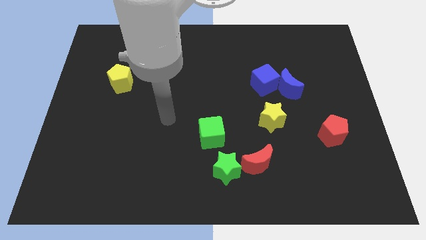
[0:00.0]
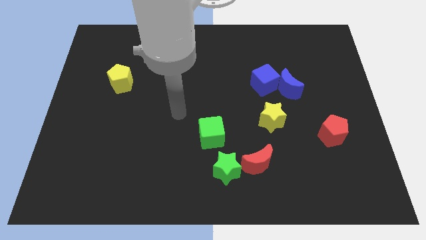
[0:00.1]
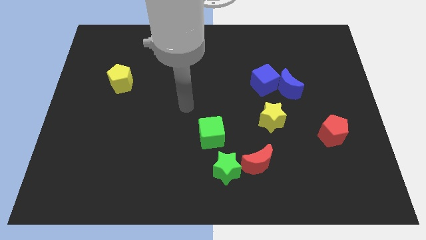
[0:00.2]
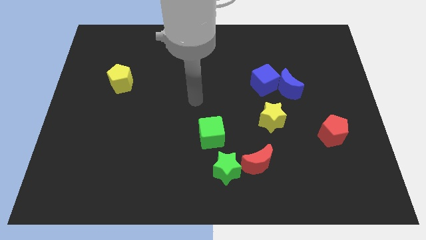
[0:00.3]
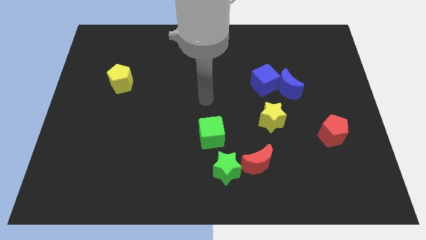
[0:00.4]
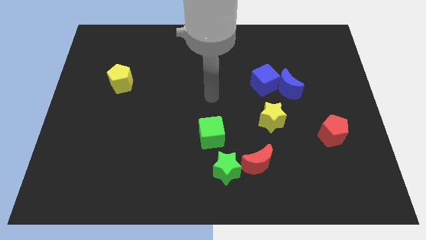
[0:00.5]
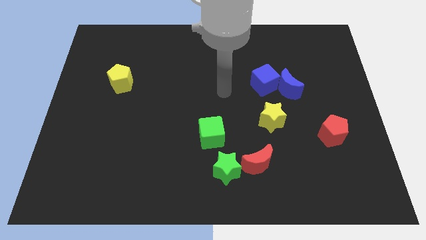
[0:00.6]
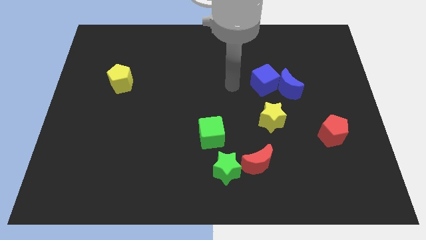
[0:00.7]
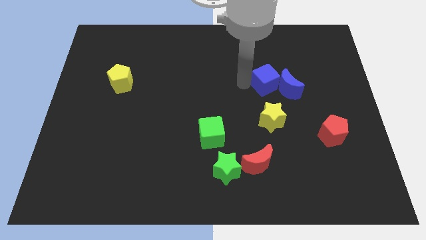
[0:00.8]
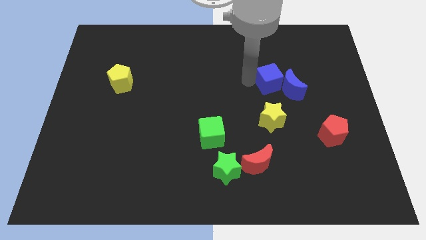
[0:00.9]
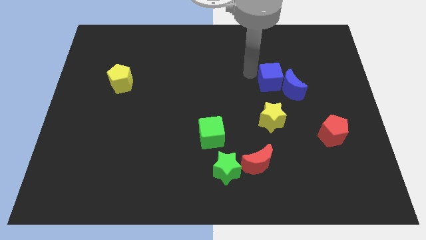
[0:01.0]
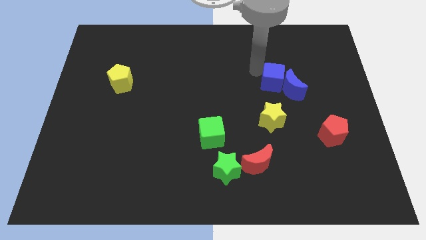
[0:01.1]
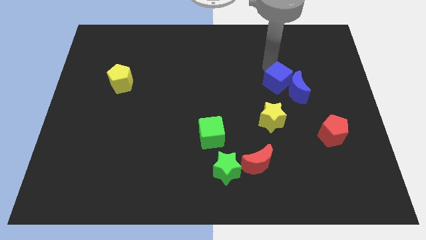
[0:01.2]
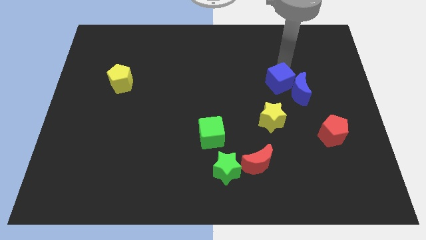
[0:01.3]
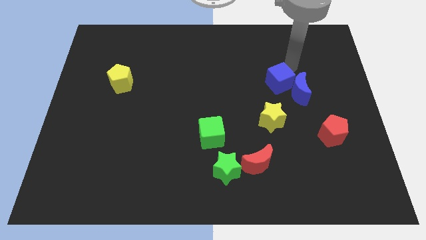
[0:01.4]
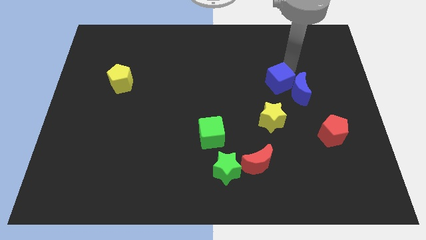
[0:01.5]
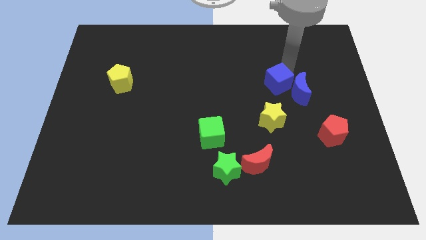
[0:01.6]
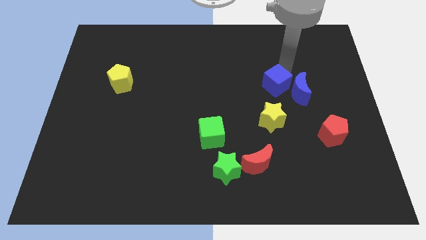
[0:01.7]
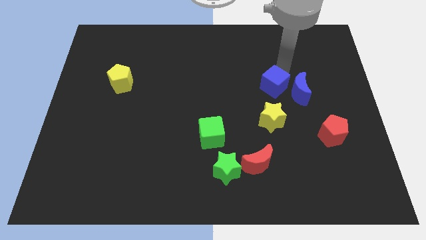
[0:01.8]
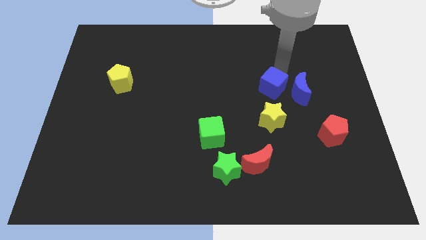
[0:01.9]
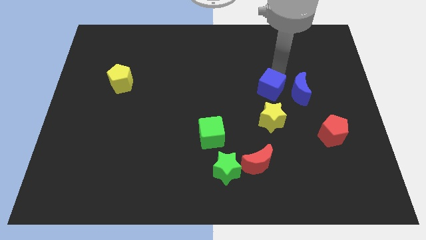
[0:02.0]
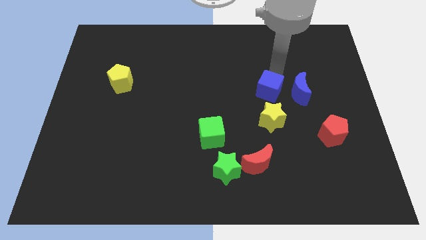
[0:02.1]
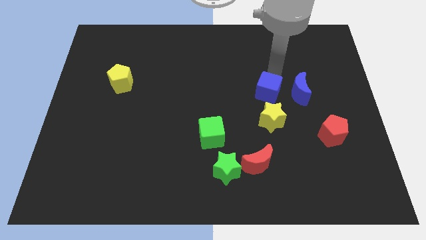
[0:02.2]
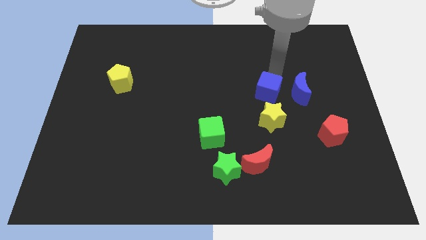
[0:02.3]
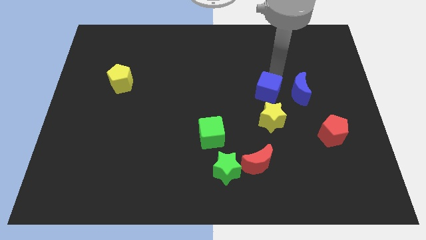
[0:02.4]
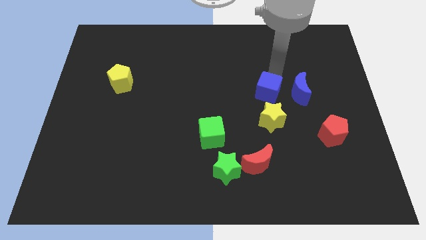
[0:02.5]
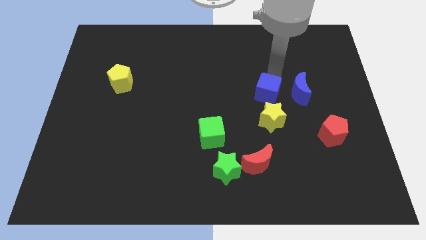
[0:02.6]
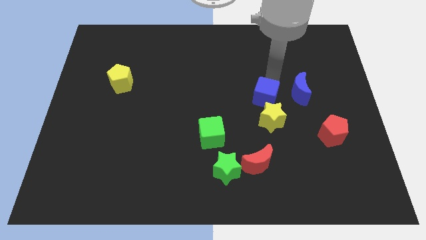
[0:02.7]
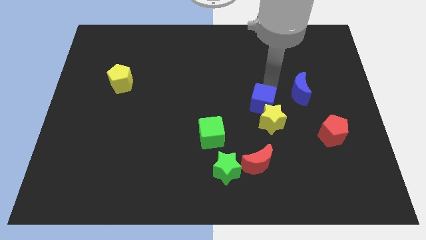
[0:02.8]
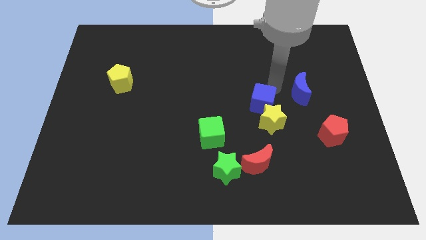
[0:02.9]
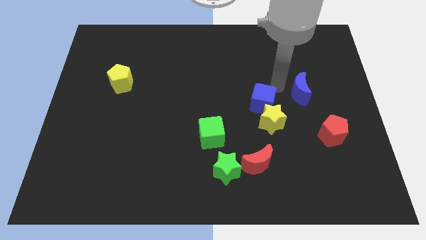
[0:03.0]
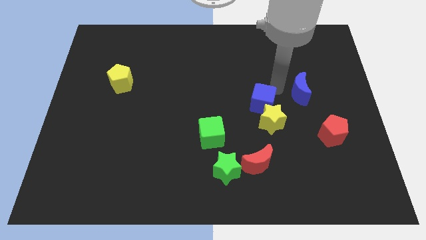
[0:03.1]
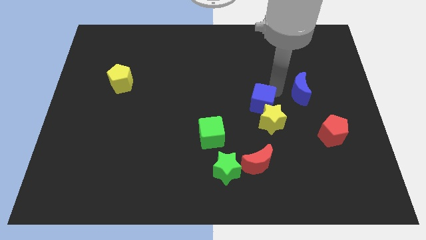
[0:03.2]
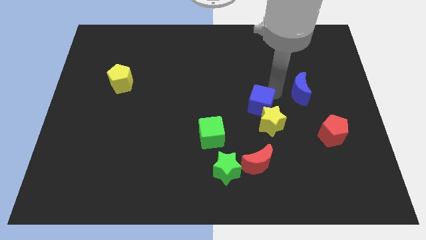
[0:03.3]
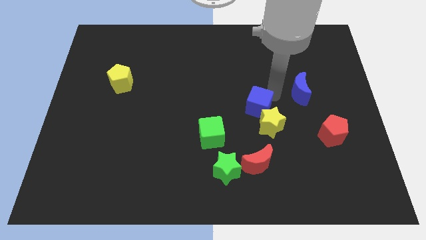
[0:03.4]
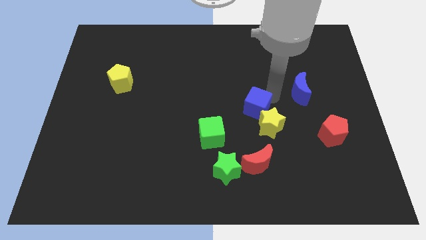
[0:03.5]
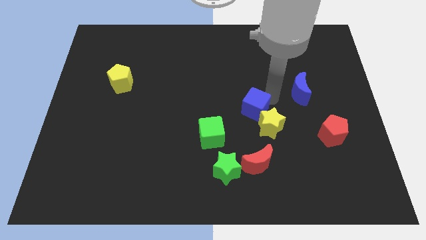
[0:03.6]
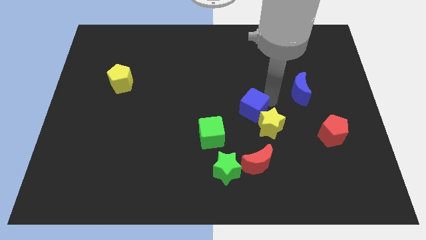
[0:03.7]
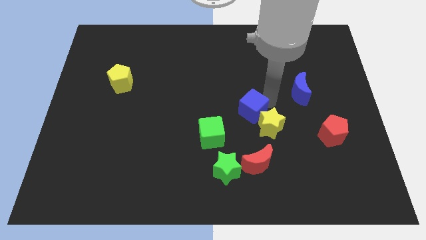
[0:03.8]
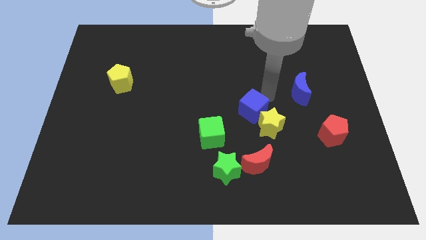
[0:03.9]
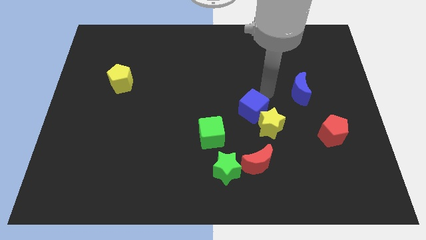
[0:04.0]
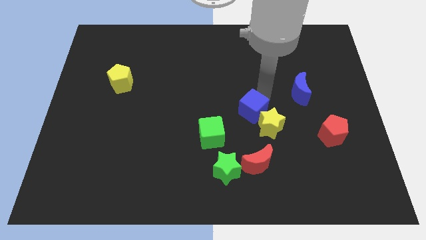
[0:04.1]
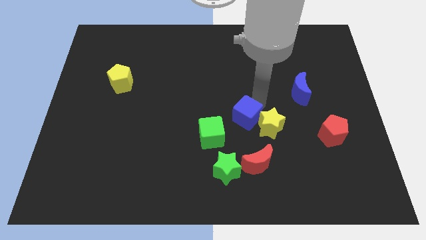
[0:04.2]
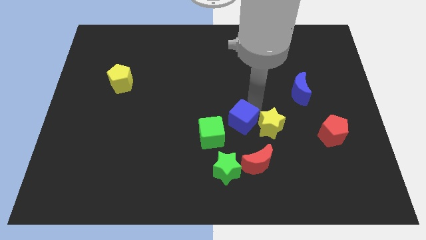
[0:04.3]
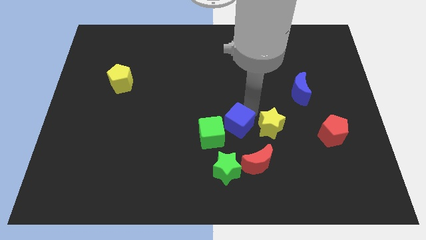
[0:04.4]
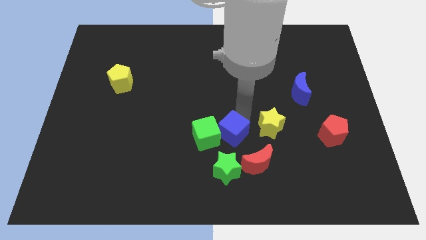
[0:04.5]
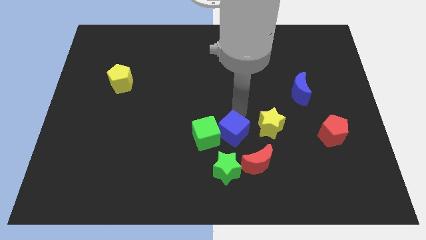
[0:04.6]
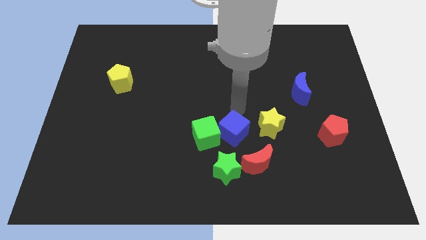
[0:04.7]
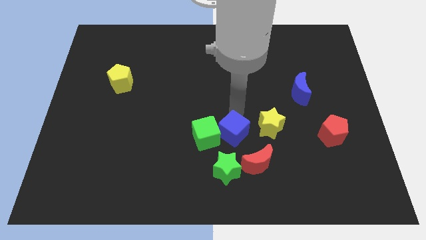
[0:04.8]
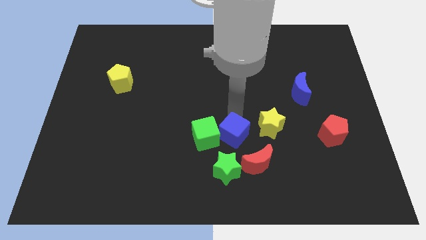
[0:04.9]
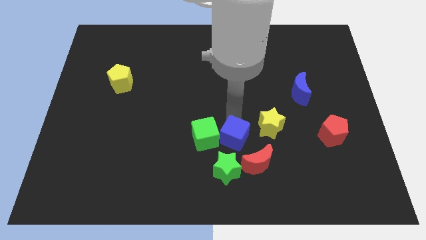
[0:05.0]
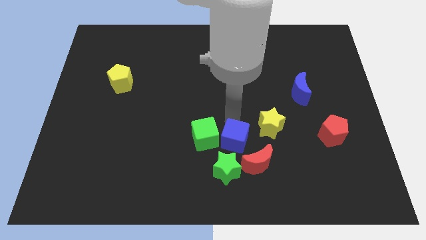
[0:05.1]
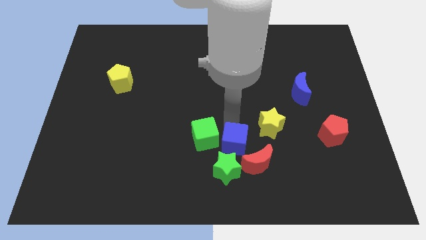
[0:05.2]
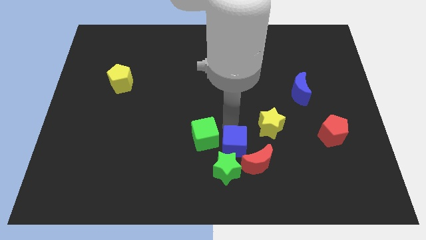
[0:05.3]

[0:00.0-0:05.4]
slide the blue cube next to the green star

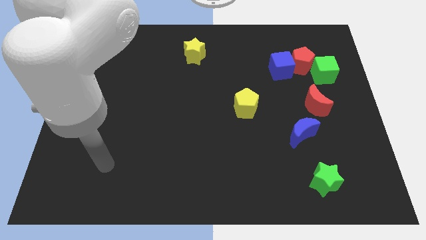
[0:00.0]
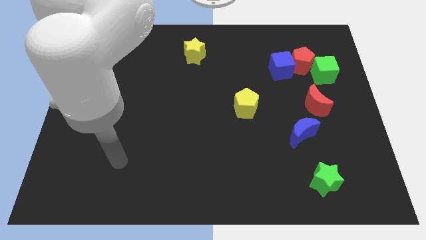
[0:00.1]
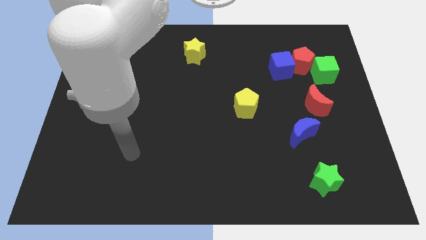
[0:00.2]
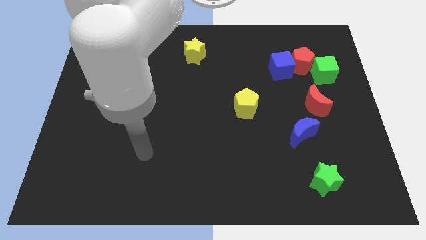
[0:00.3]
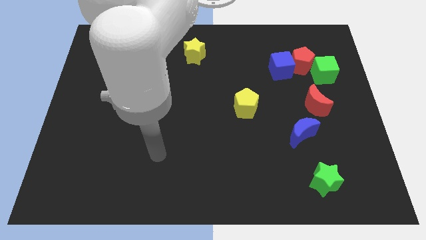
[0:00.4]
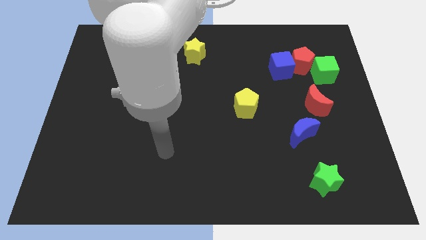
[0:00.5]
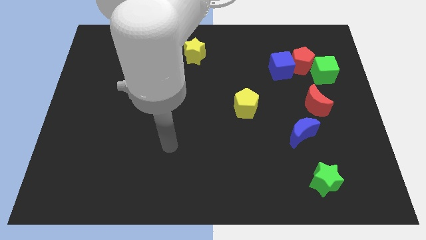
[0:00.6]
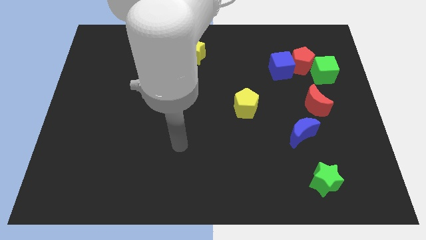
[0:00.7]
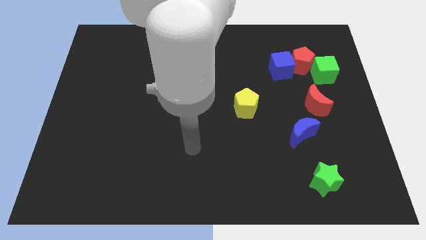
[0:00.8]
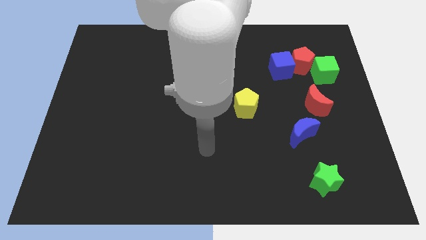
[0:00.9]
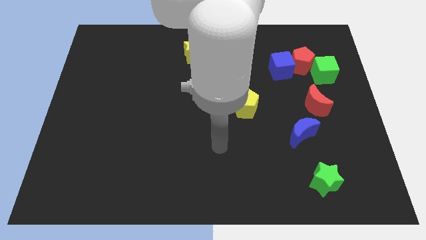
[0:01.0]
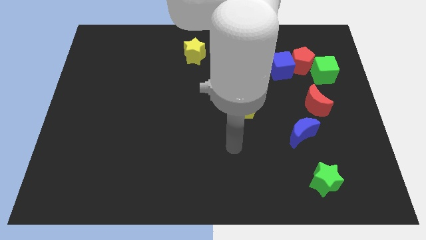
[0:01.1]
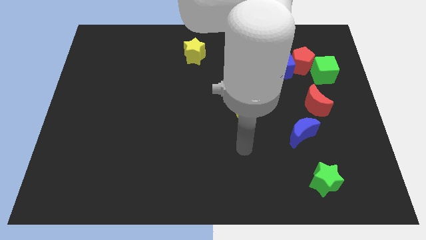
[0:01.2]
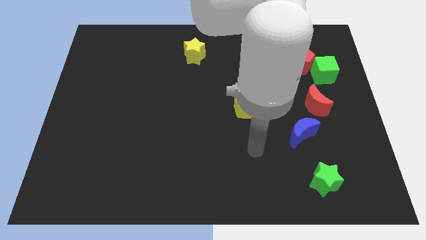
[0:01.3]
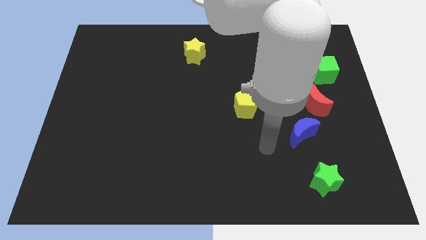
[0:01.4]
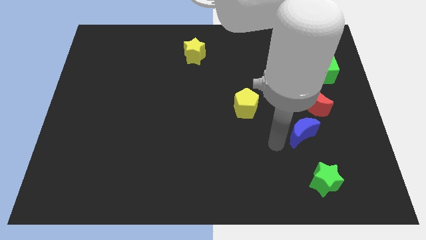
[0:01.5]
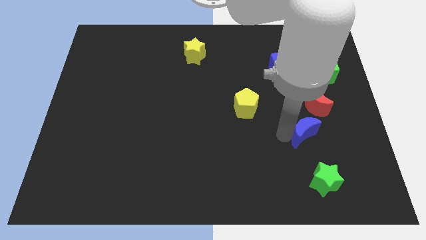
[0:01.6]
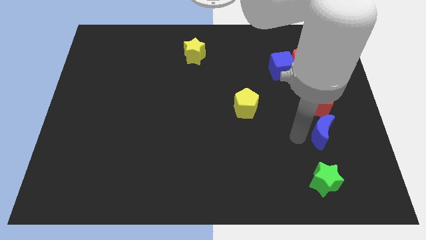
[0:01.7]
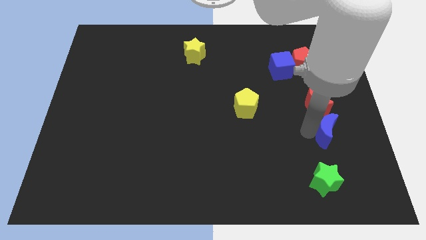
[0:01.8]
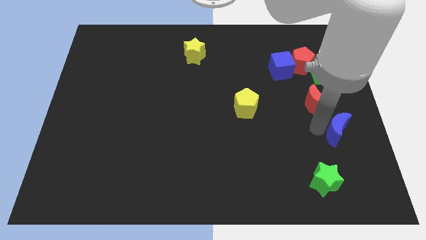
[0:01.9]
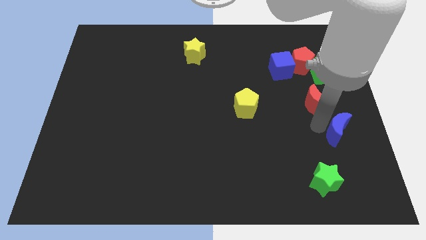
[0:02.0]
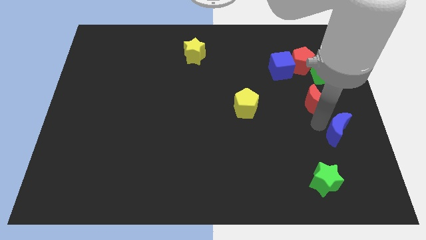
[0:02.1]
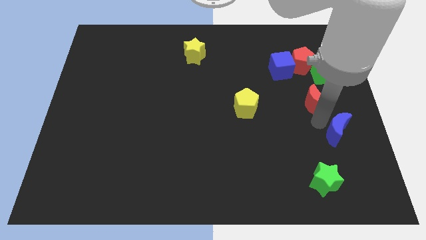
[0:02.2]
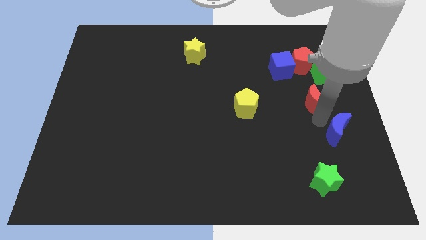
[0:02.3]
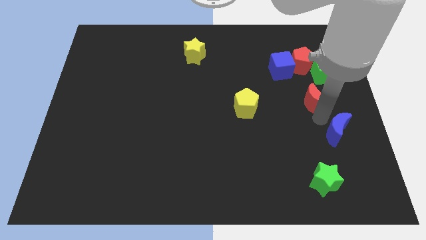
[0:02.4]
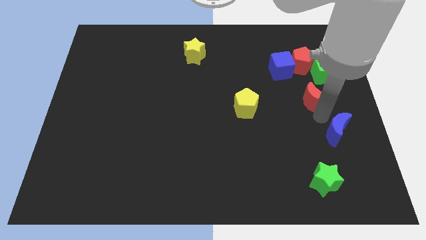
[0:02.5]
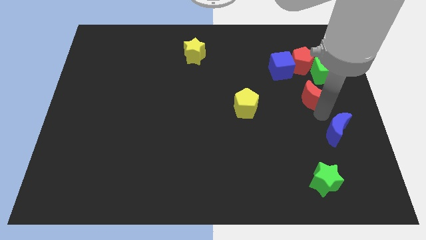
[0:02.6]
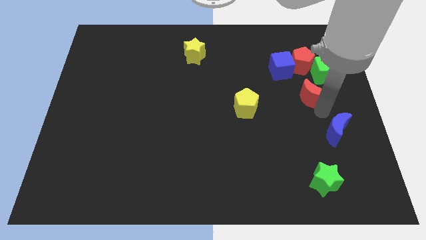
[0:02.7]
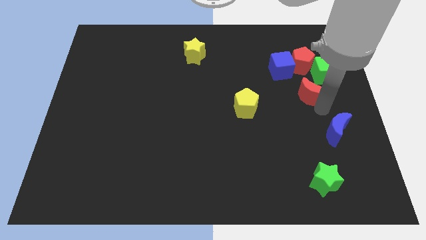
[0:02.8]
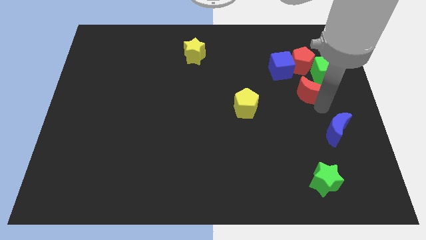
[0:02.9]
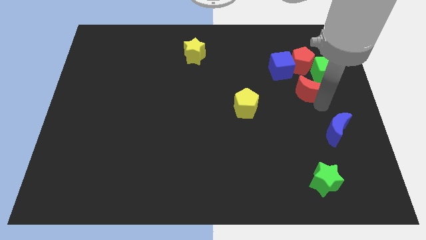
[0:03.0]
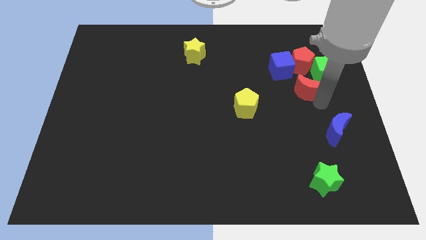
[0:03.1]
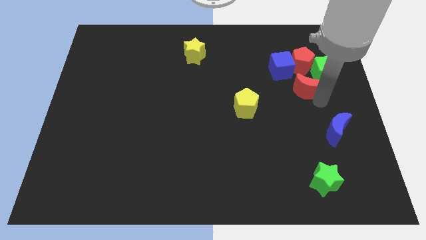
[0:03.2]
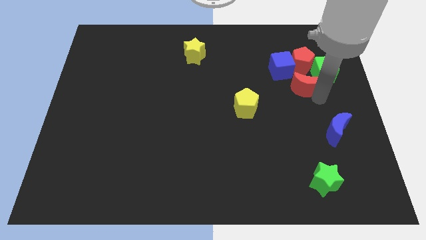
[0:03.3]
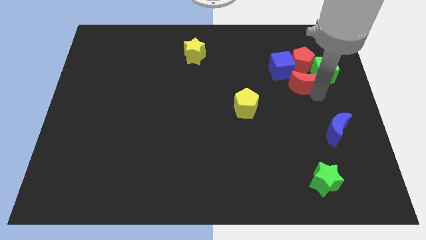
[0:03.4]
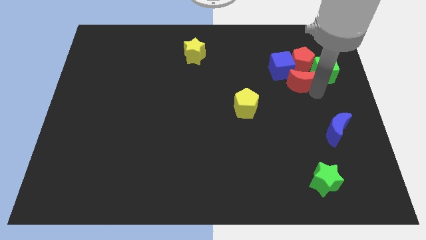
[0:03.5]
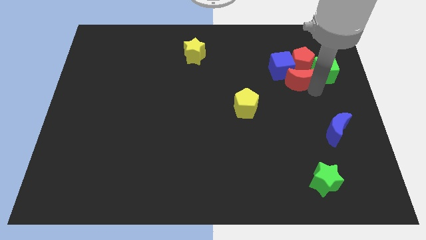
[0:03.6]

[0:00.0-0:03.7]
slide the red moon to the blue cube
